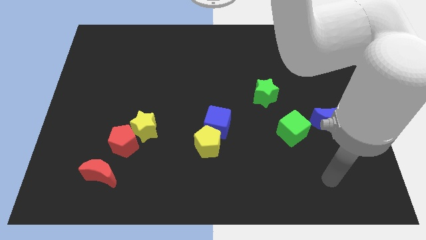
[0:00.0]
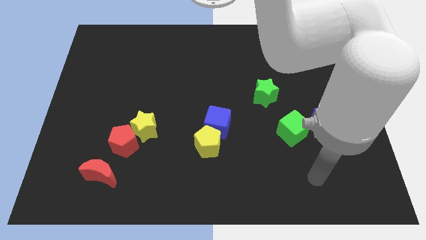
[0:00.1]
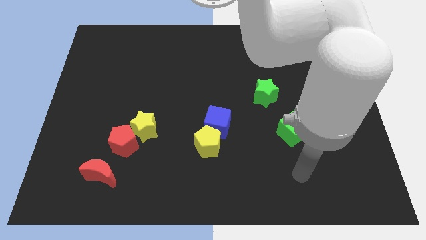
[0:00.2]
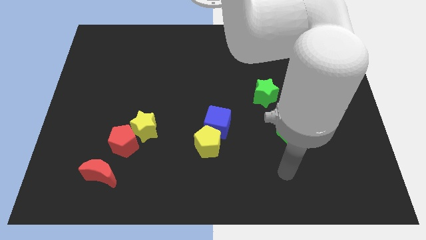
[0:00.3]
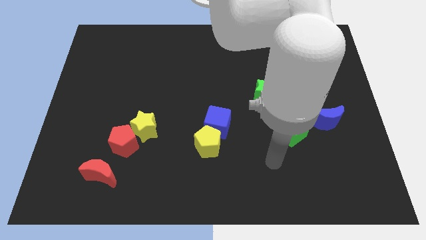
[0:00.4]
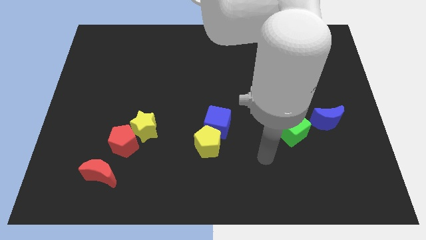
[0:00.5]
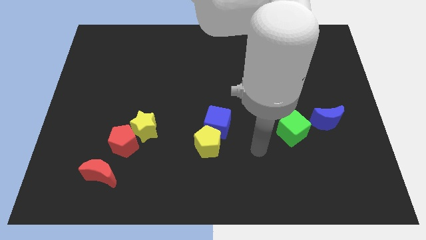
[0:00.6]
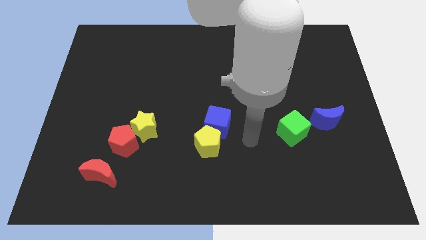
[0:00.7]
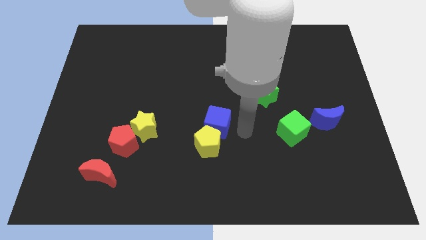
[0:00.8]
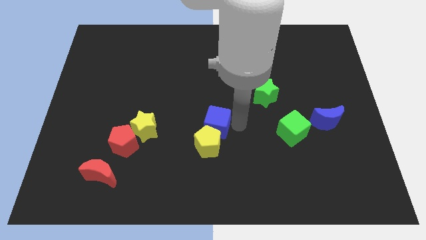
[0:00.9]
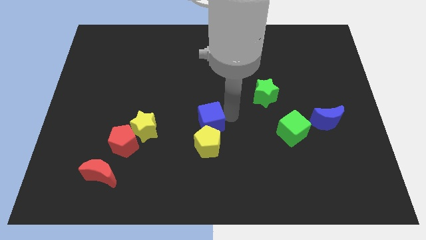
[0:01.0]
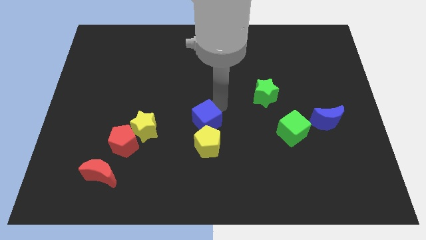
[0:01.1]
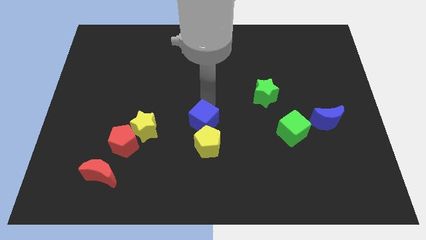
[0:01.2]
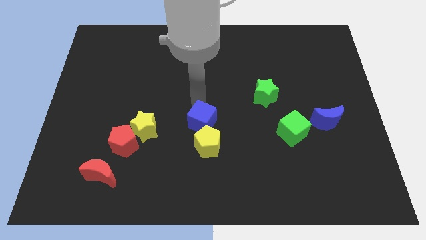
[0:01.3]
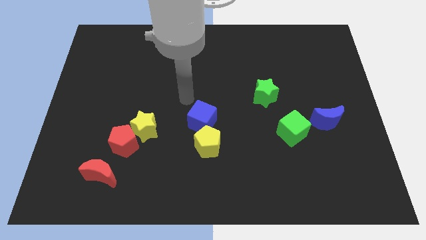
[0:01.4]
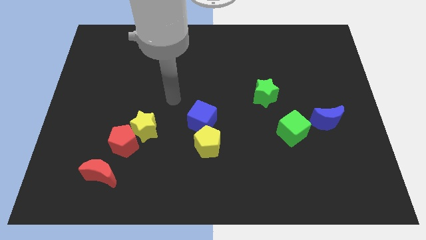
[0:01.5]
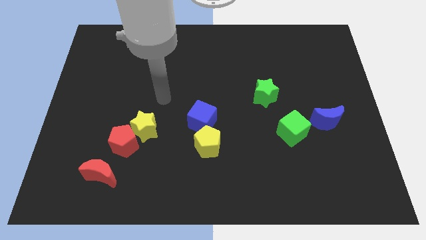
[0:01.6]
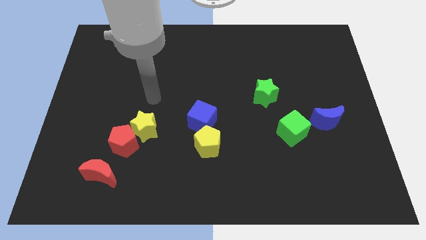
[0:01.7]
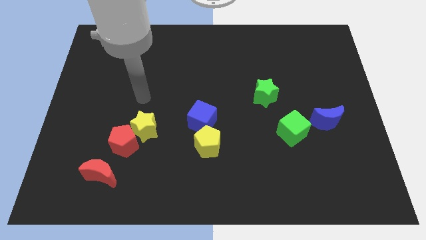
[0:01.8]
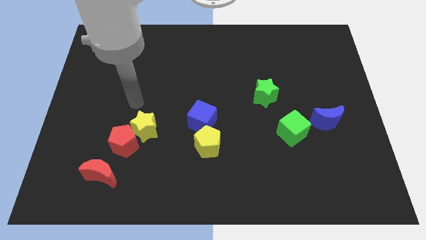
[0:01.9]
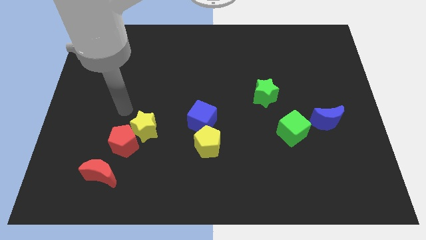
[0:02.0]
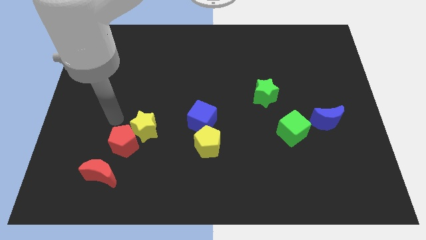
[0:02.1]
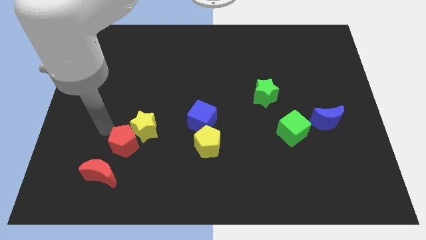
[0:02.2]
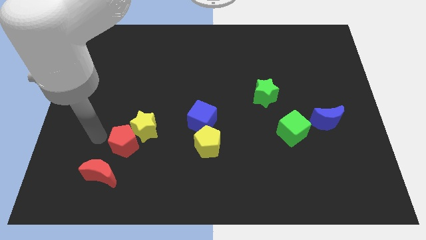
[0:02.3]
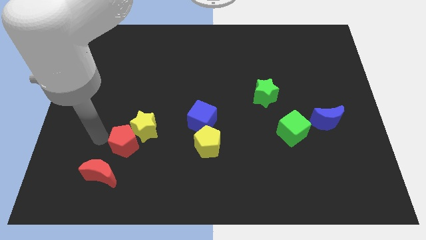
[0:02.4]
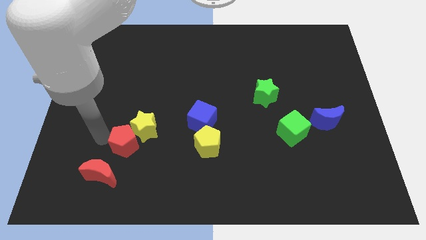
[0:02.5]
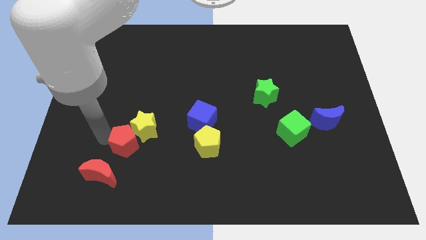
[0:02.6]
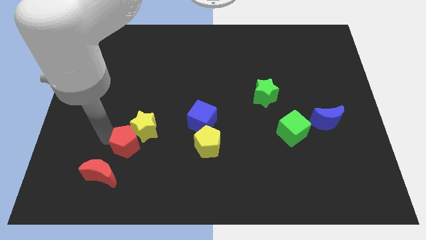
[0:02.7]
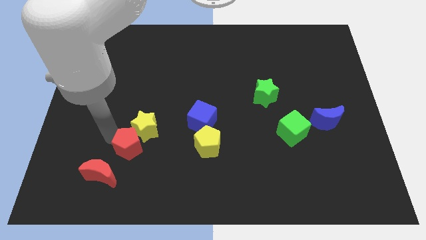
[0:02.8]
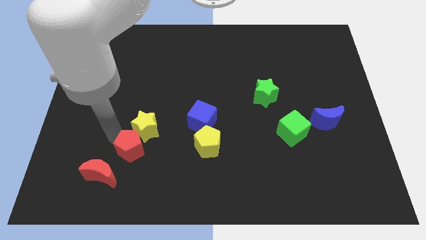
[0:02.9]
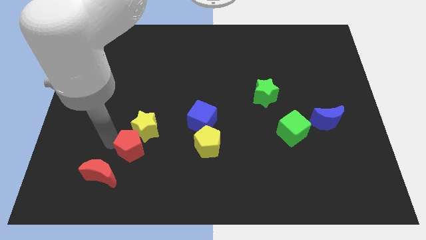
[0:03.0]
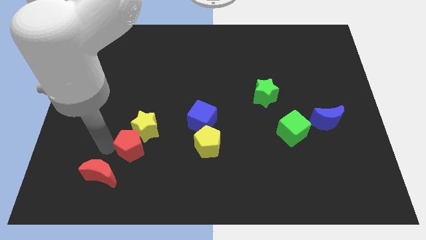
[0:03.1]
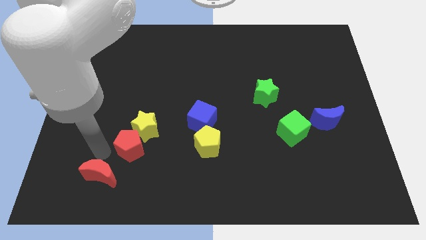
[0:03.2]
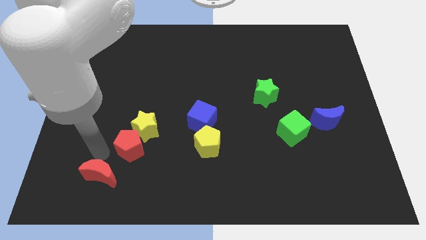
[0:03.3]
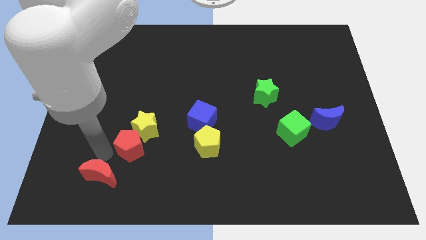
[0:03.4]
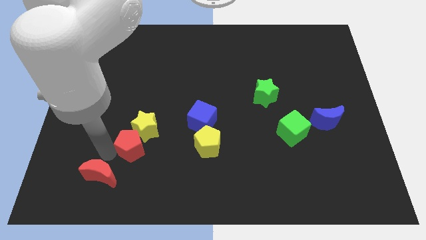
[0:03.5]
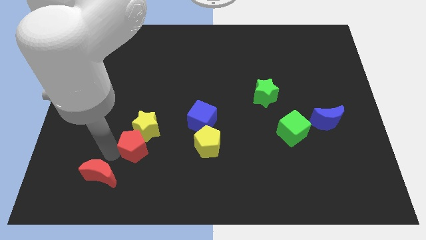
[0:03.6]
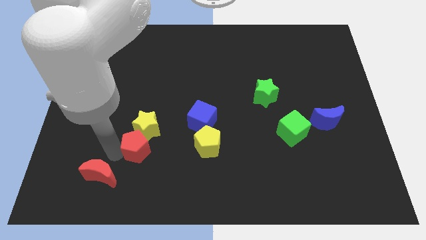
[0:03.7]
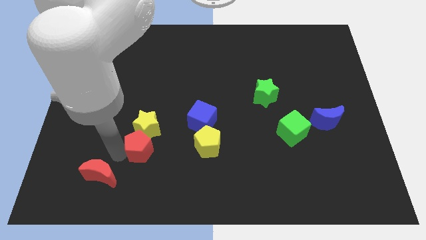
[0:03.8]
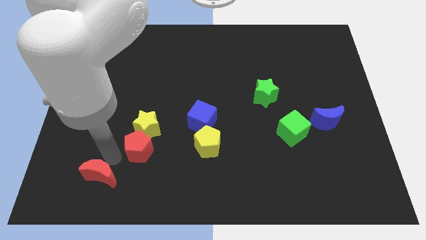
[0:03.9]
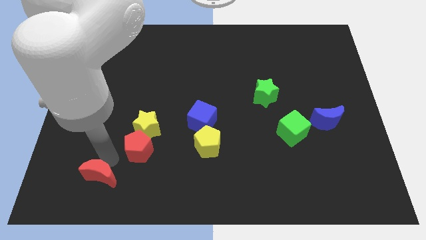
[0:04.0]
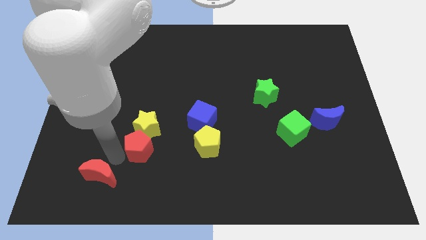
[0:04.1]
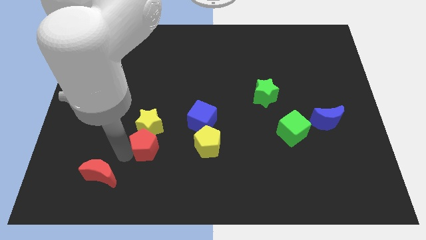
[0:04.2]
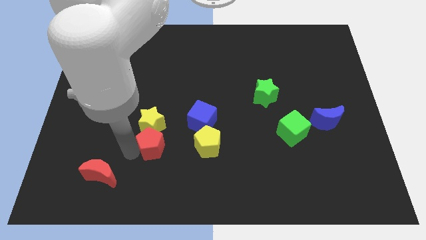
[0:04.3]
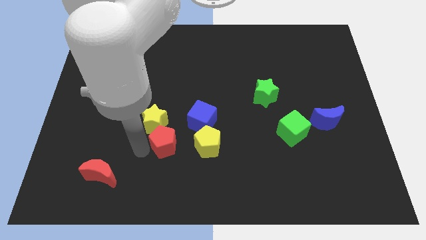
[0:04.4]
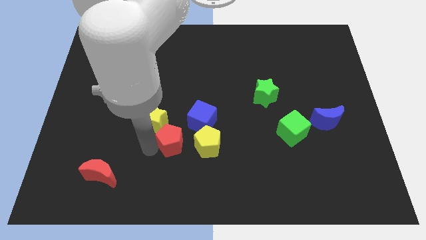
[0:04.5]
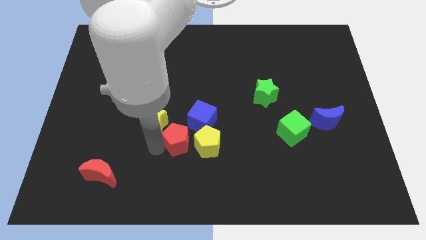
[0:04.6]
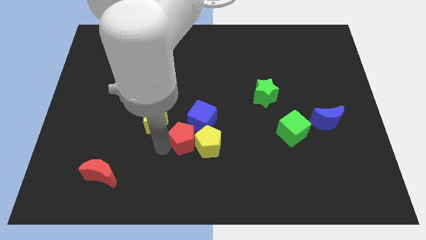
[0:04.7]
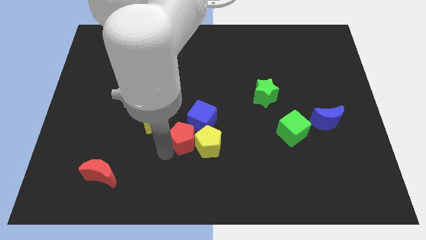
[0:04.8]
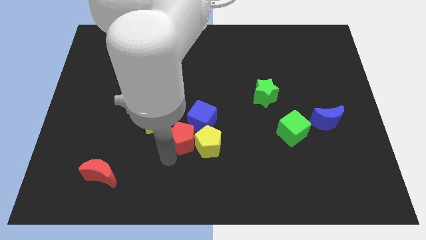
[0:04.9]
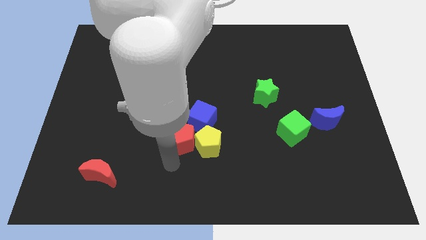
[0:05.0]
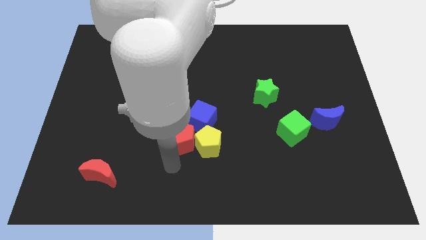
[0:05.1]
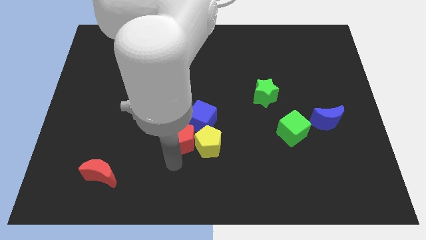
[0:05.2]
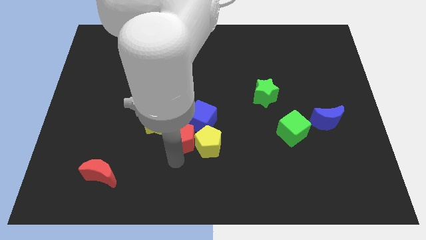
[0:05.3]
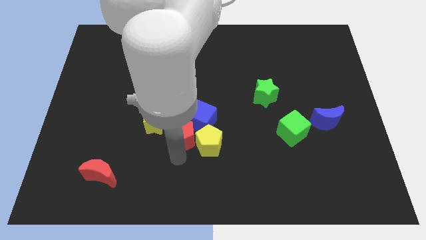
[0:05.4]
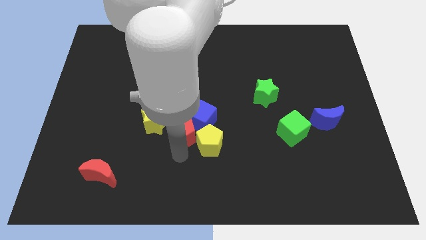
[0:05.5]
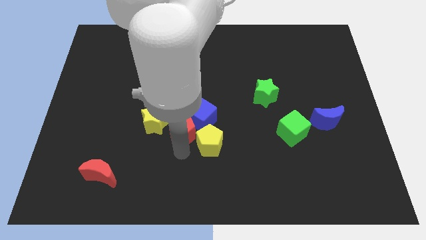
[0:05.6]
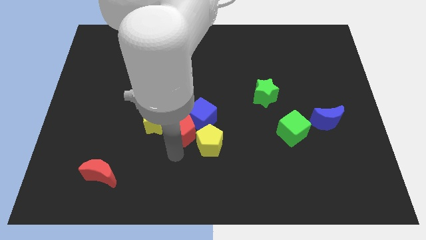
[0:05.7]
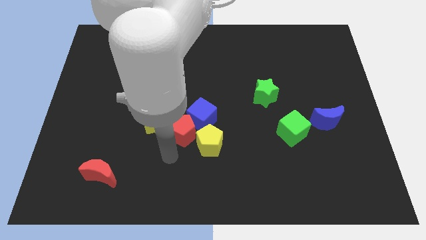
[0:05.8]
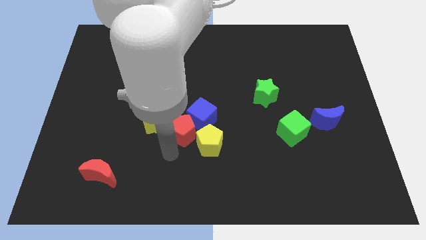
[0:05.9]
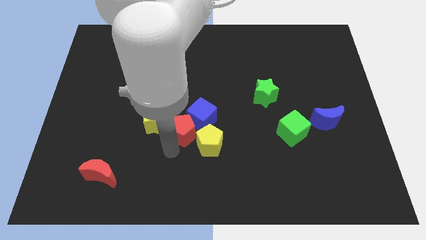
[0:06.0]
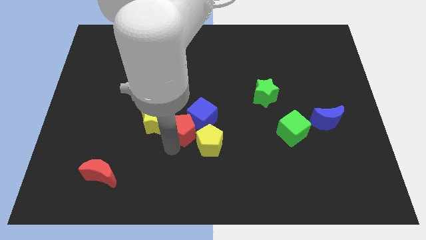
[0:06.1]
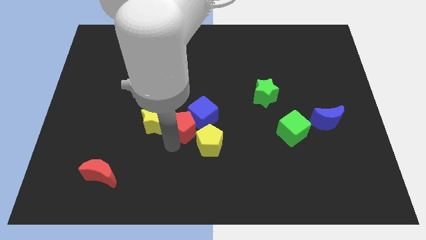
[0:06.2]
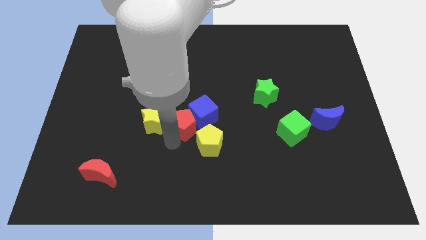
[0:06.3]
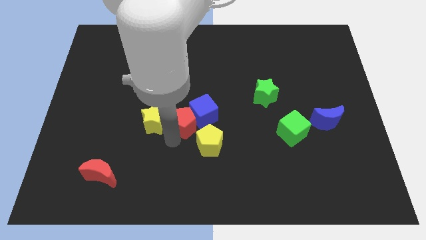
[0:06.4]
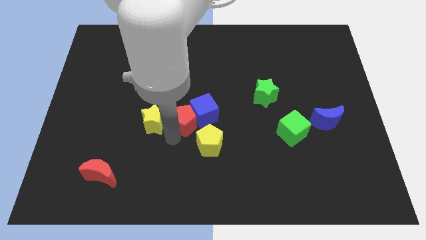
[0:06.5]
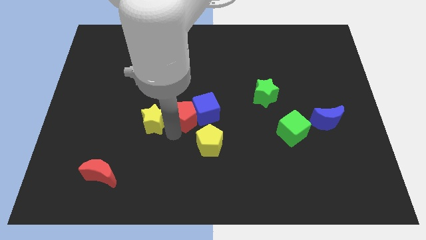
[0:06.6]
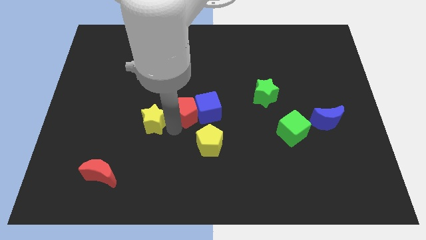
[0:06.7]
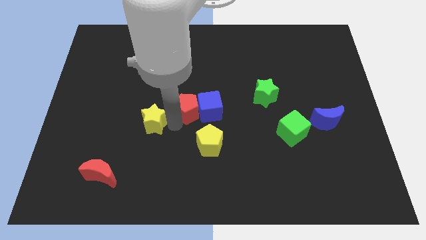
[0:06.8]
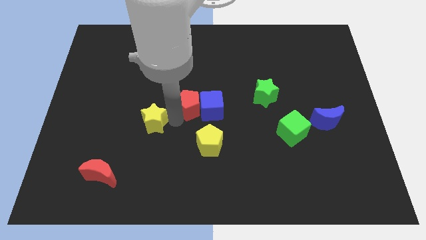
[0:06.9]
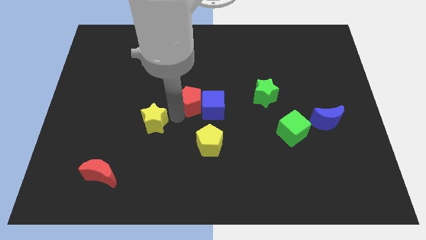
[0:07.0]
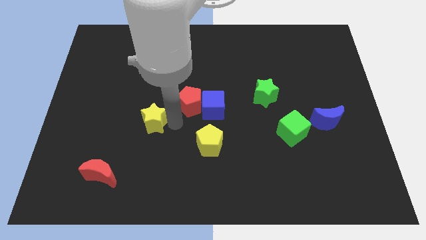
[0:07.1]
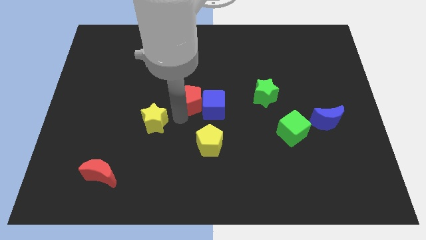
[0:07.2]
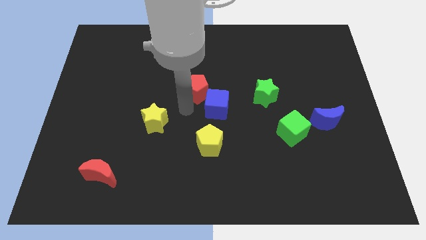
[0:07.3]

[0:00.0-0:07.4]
put the red pentagon above the blue cube

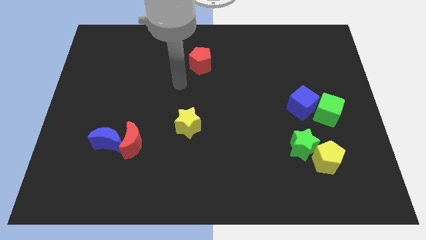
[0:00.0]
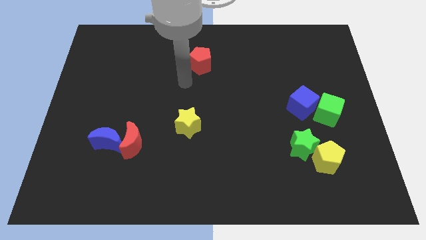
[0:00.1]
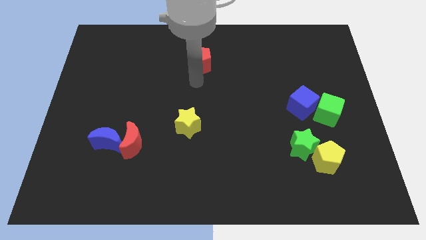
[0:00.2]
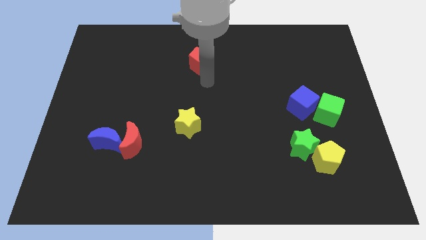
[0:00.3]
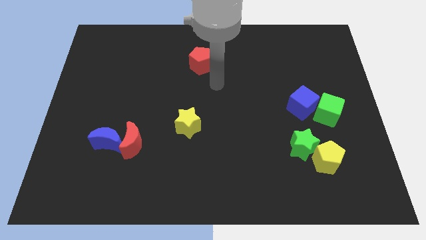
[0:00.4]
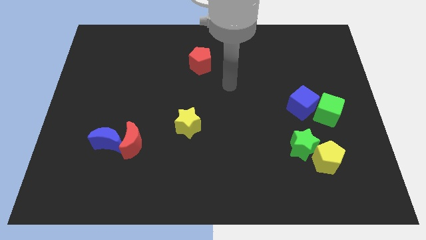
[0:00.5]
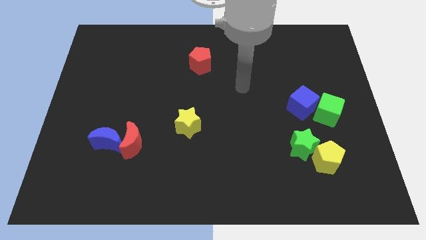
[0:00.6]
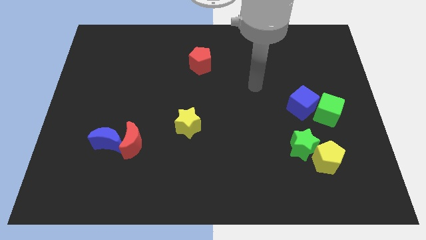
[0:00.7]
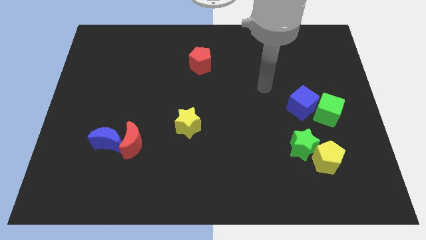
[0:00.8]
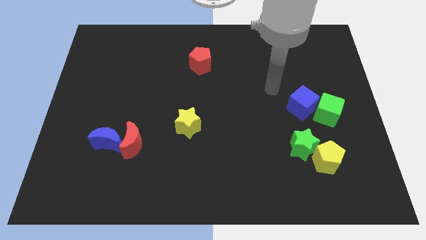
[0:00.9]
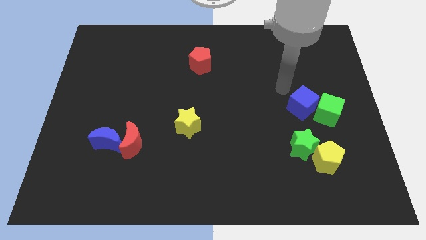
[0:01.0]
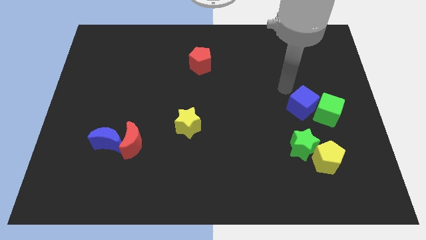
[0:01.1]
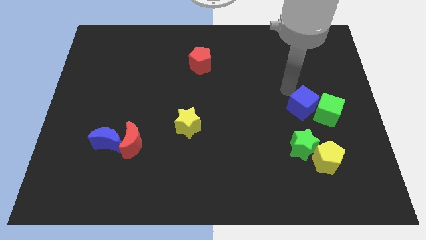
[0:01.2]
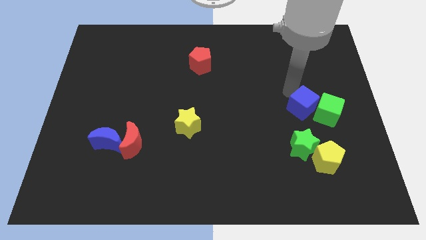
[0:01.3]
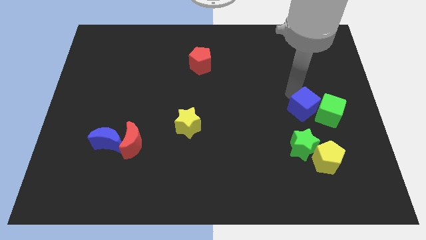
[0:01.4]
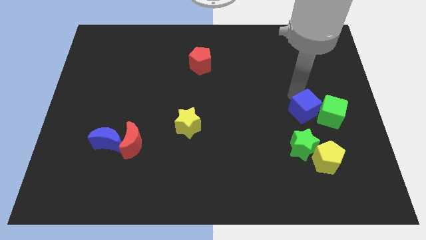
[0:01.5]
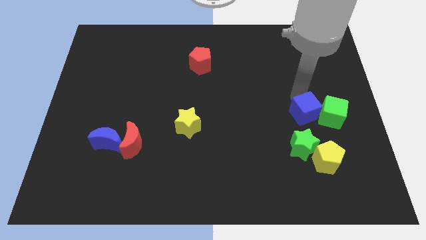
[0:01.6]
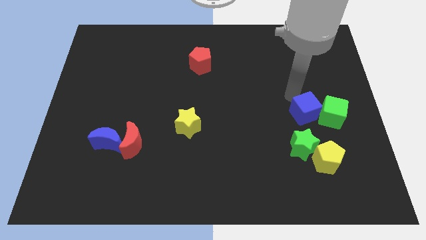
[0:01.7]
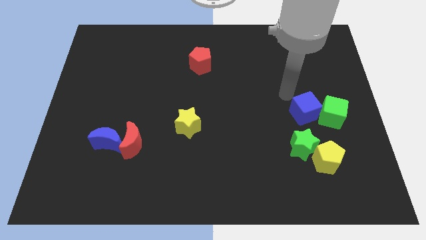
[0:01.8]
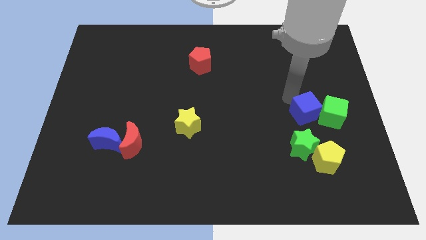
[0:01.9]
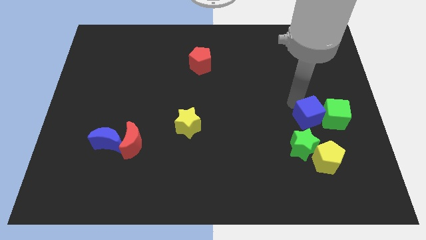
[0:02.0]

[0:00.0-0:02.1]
slide the blue cube diagonally up and to the right of the green star
